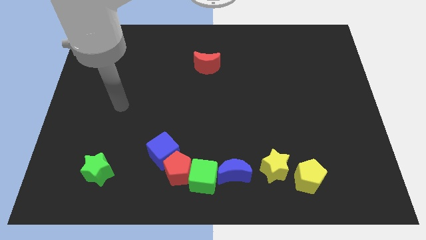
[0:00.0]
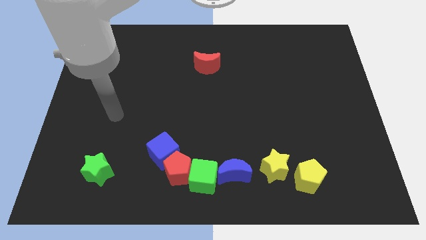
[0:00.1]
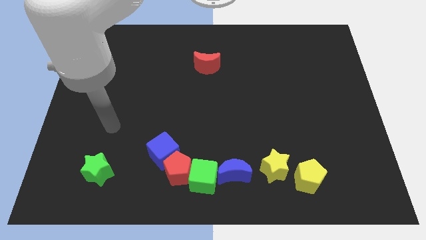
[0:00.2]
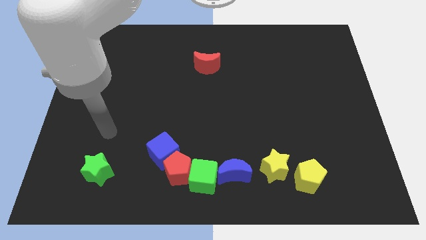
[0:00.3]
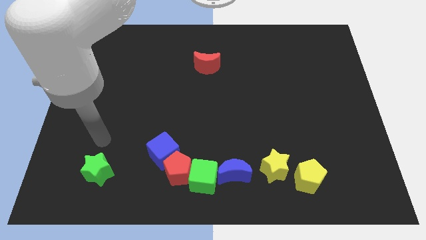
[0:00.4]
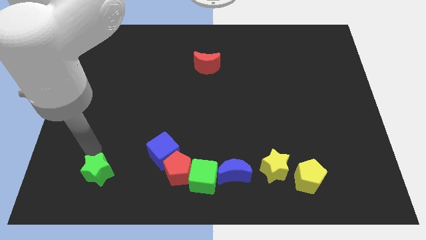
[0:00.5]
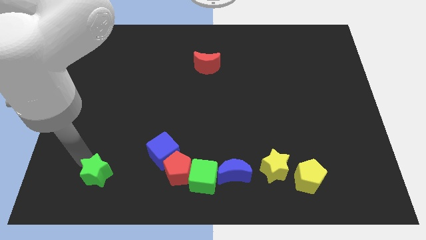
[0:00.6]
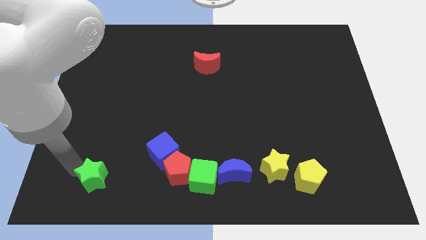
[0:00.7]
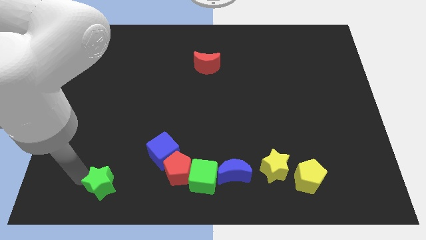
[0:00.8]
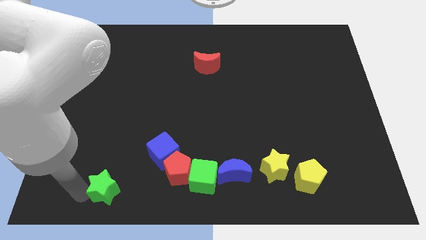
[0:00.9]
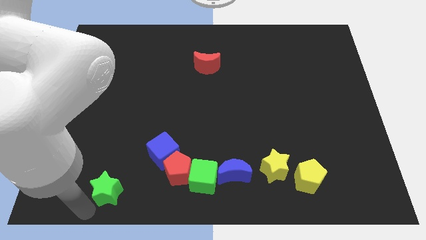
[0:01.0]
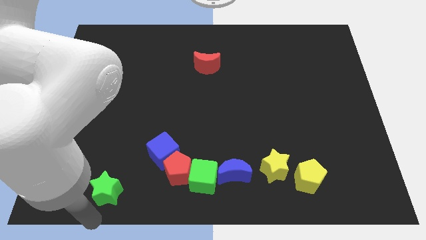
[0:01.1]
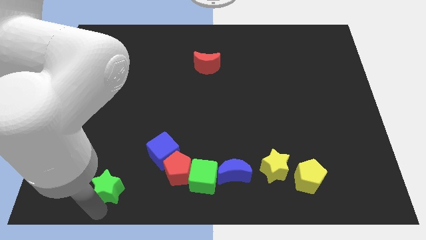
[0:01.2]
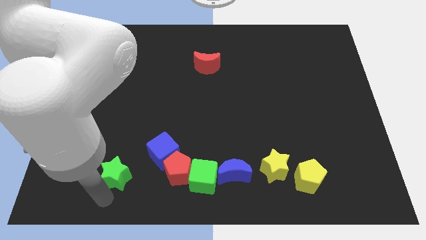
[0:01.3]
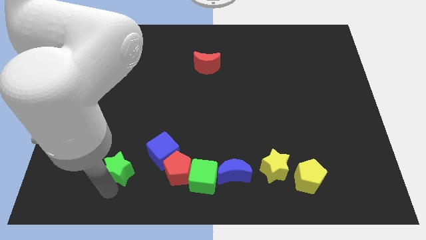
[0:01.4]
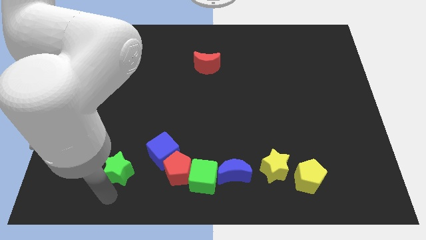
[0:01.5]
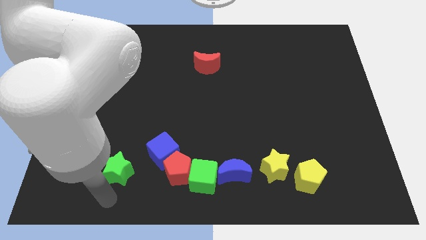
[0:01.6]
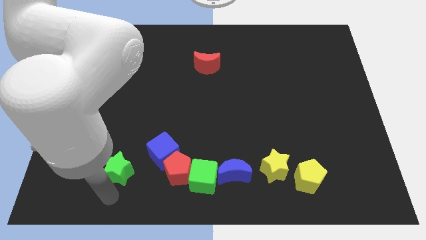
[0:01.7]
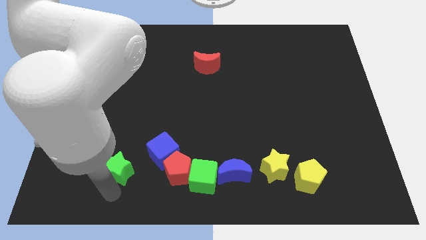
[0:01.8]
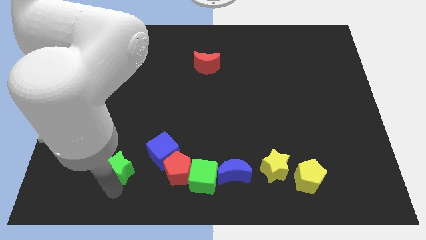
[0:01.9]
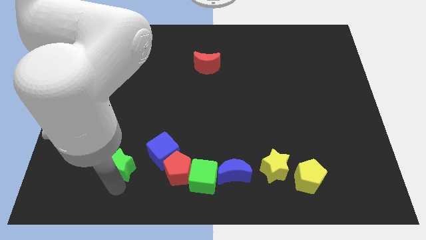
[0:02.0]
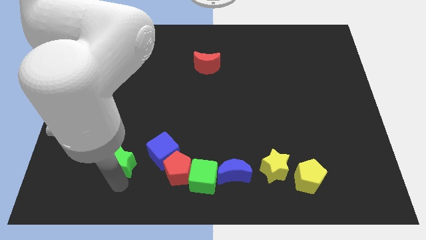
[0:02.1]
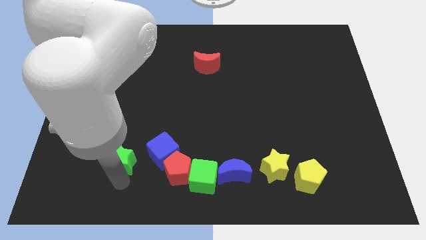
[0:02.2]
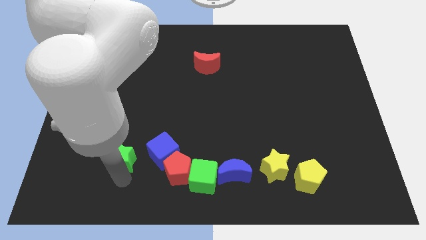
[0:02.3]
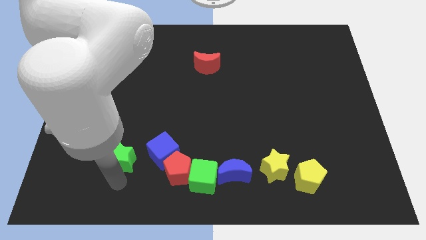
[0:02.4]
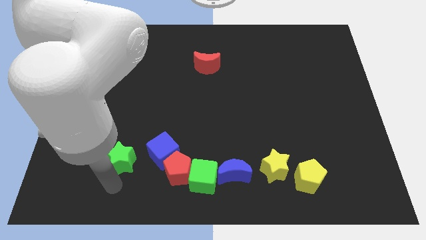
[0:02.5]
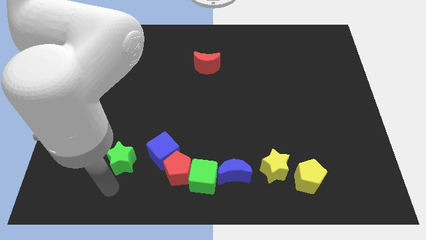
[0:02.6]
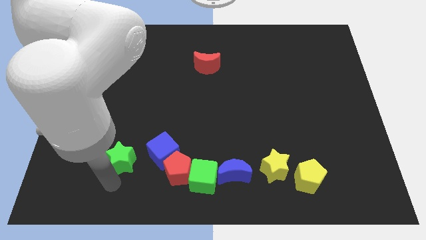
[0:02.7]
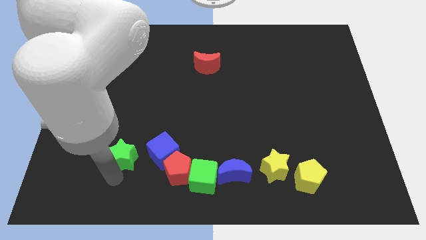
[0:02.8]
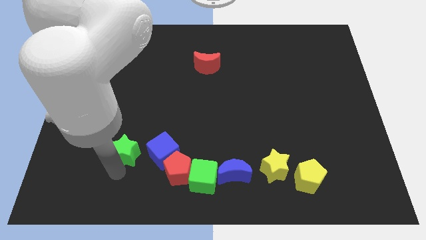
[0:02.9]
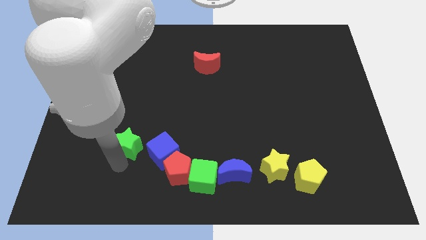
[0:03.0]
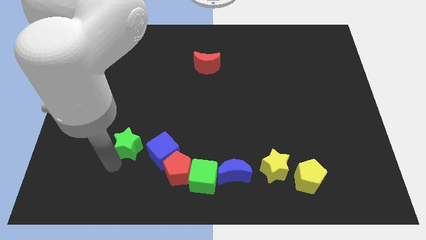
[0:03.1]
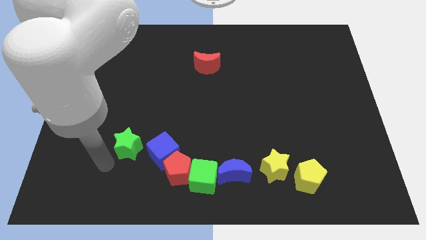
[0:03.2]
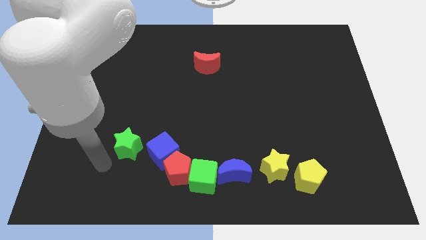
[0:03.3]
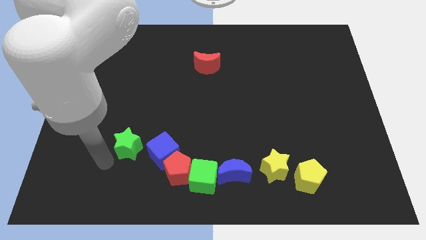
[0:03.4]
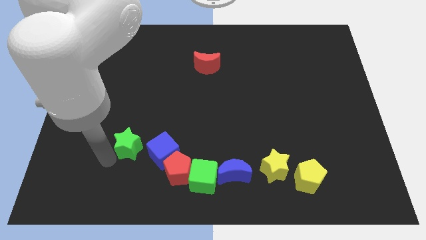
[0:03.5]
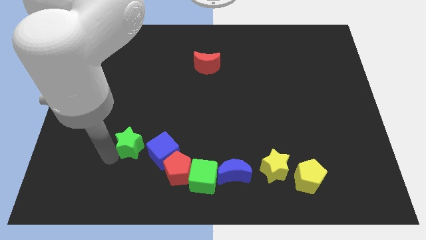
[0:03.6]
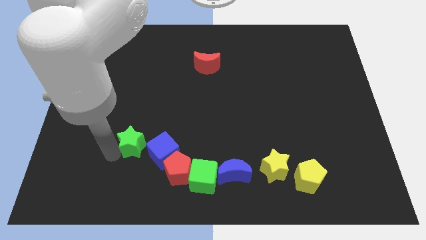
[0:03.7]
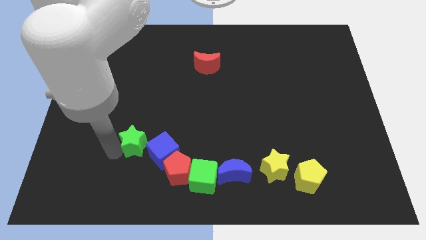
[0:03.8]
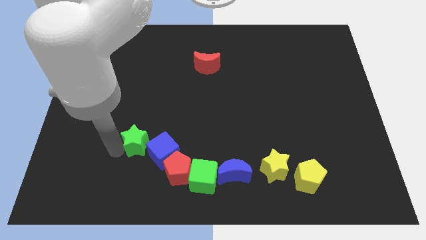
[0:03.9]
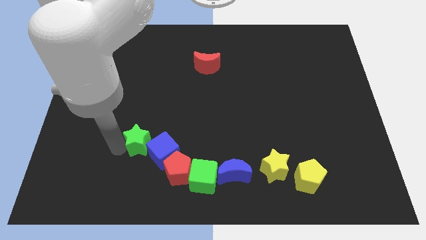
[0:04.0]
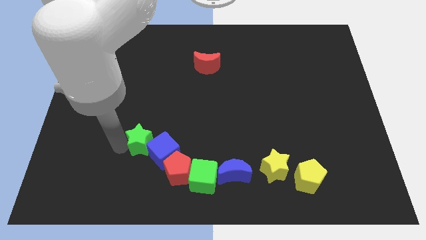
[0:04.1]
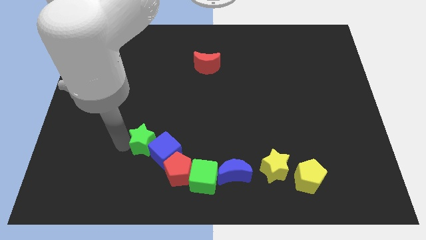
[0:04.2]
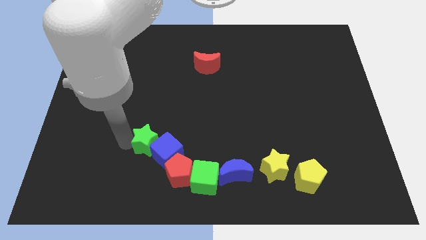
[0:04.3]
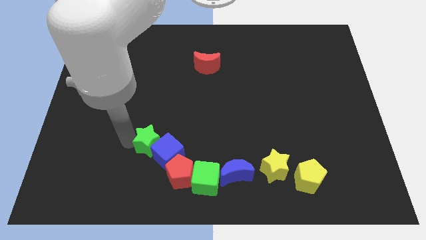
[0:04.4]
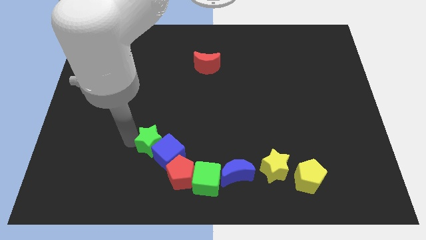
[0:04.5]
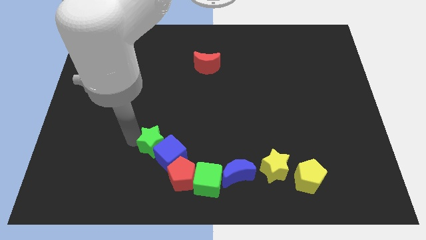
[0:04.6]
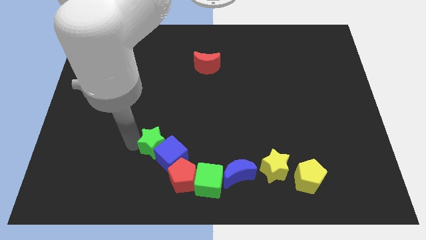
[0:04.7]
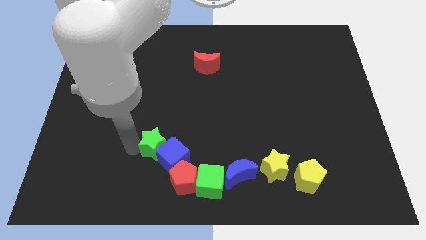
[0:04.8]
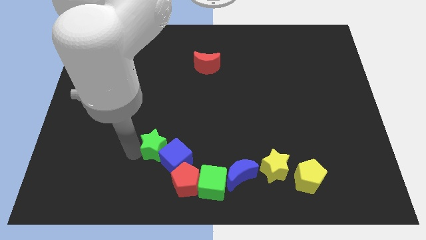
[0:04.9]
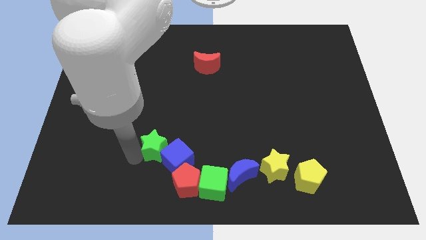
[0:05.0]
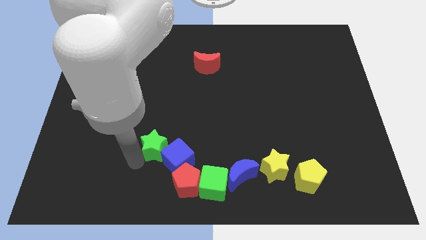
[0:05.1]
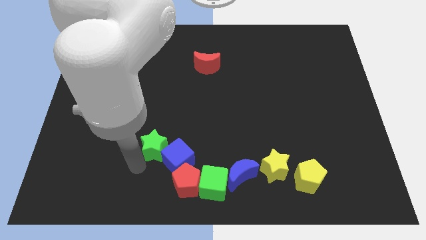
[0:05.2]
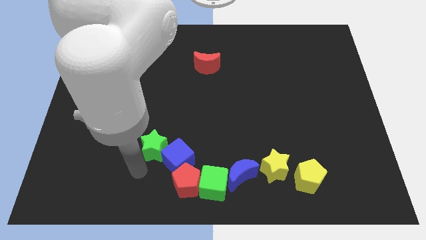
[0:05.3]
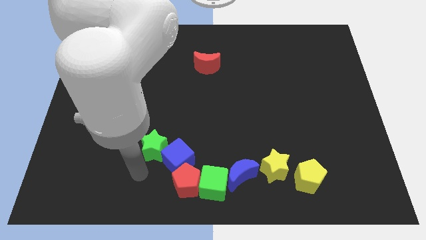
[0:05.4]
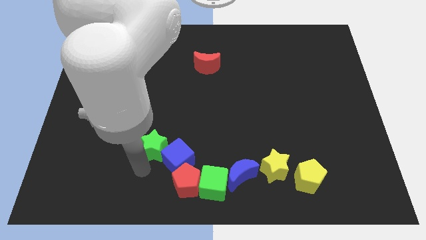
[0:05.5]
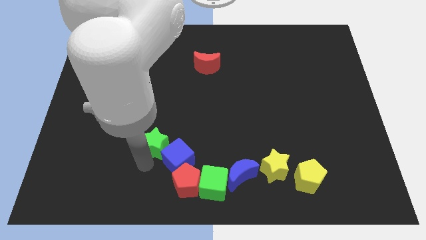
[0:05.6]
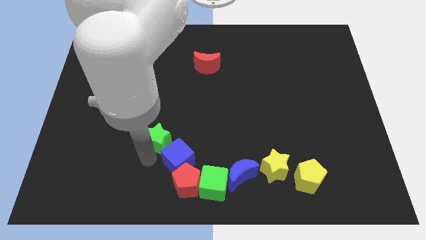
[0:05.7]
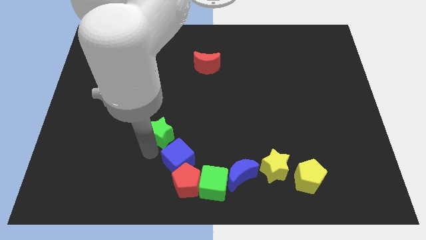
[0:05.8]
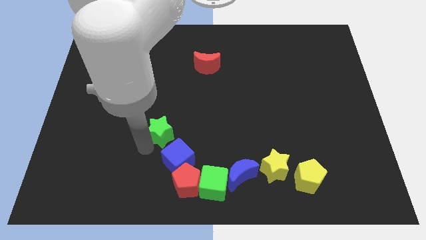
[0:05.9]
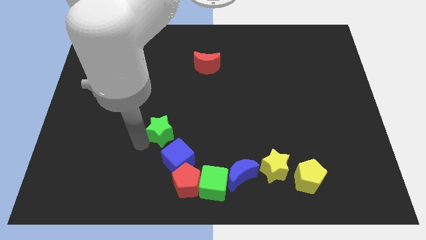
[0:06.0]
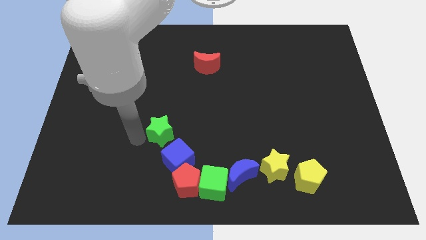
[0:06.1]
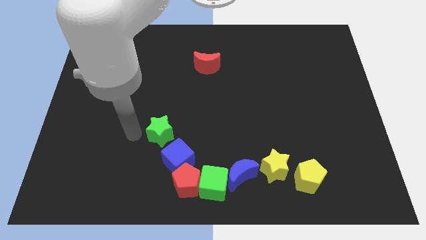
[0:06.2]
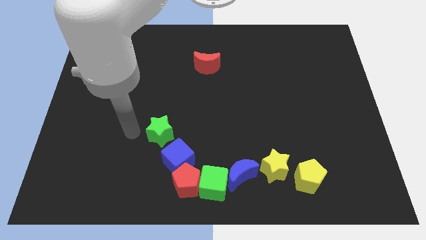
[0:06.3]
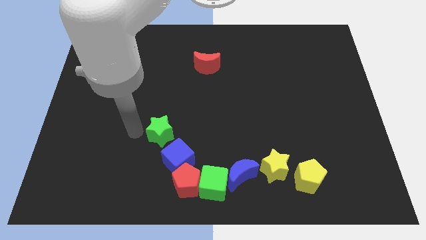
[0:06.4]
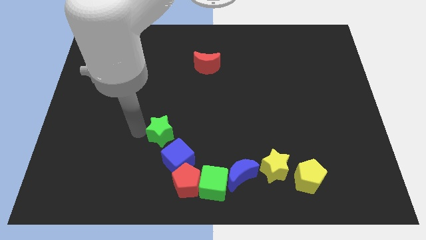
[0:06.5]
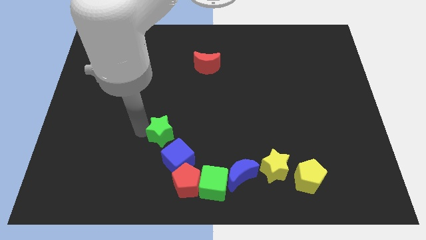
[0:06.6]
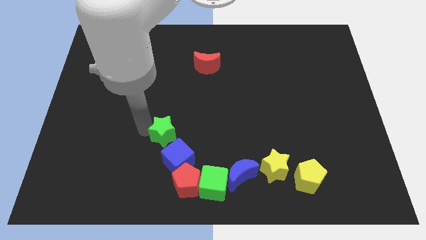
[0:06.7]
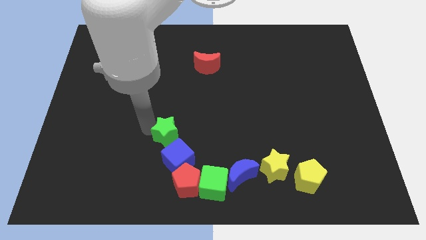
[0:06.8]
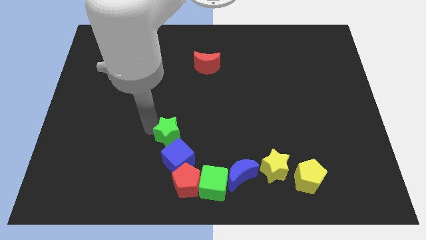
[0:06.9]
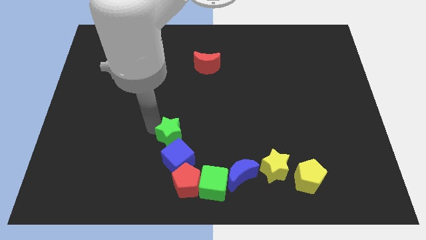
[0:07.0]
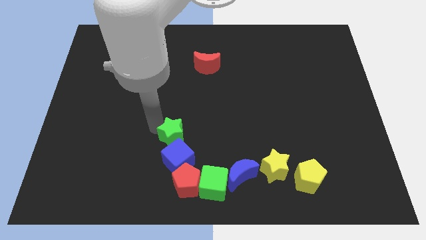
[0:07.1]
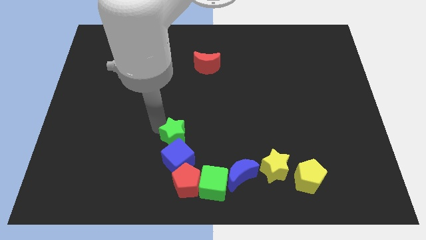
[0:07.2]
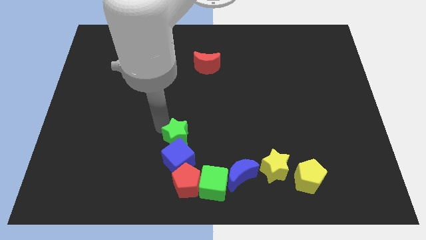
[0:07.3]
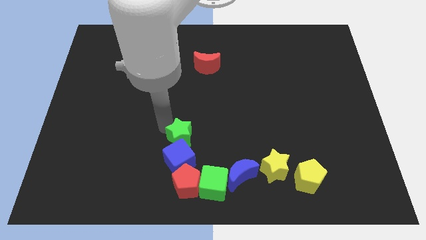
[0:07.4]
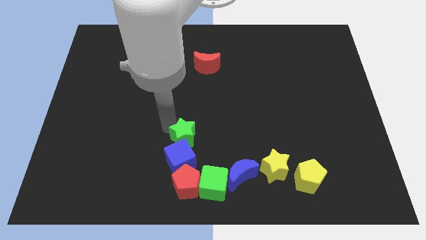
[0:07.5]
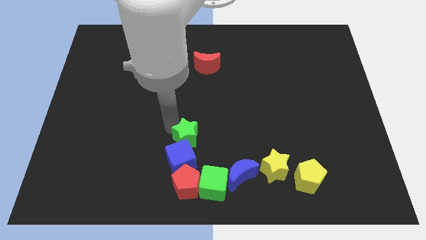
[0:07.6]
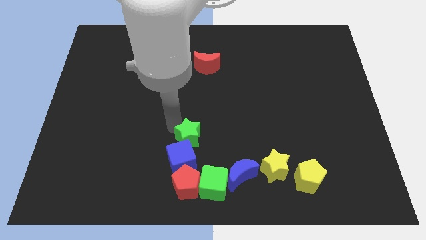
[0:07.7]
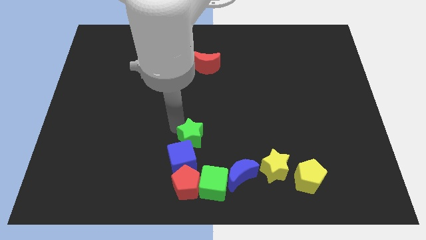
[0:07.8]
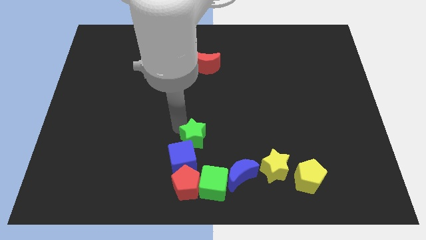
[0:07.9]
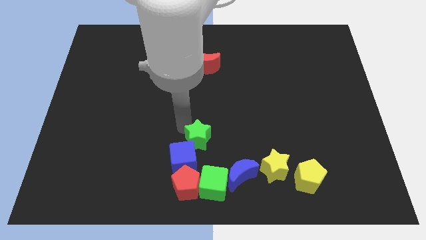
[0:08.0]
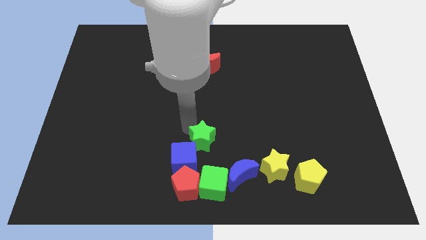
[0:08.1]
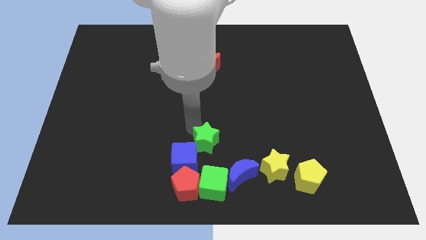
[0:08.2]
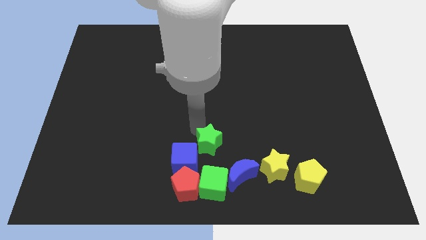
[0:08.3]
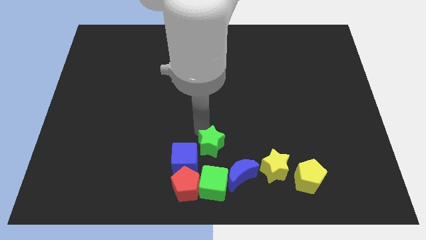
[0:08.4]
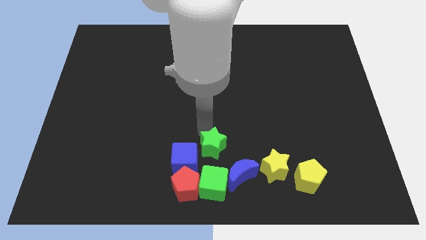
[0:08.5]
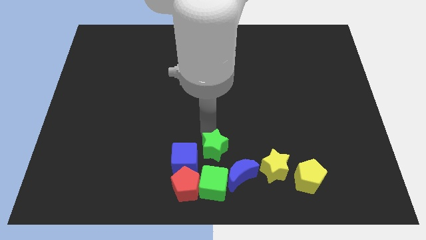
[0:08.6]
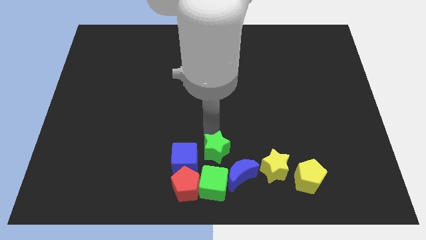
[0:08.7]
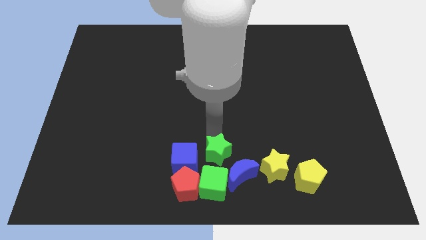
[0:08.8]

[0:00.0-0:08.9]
put the green star diagonally up and to the right of the green cube
